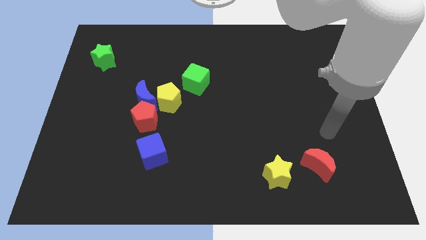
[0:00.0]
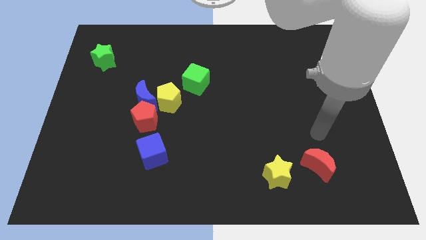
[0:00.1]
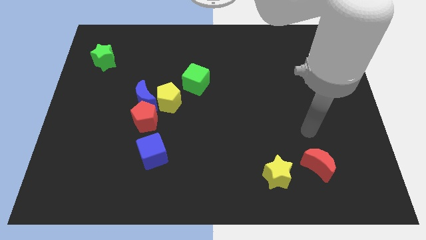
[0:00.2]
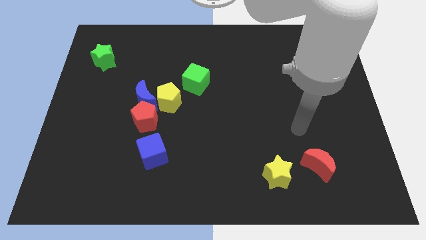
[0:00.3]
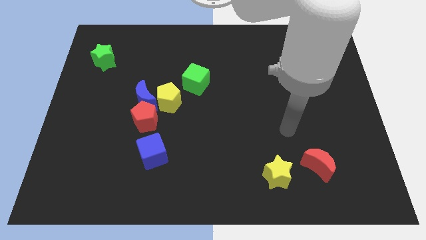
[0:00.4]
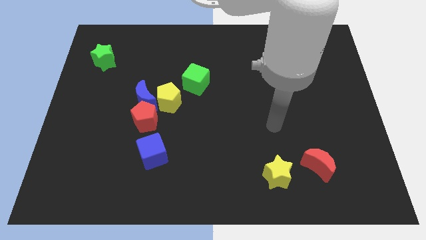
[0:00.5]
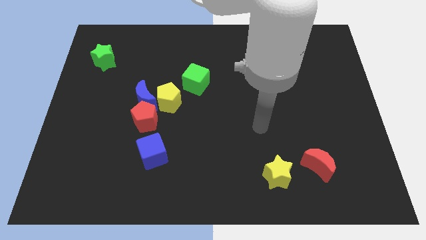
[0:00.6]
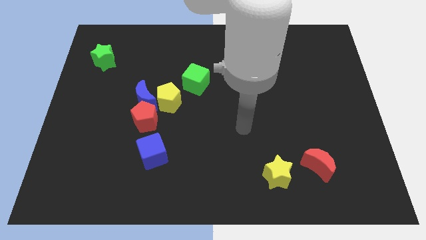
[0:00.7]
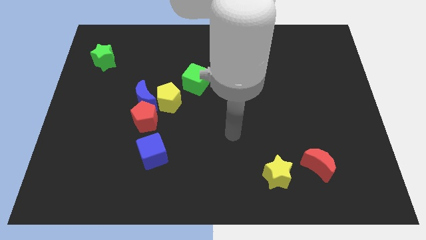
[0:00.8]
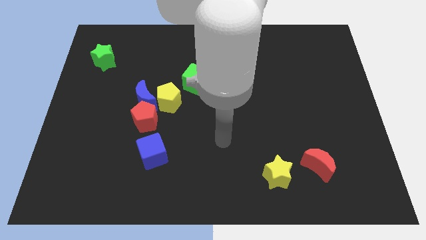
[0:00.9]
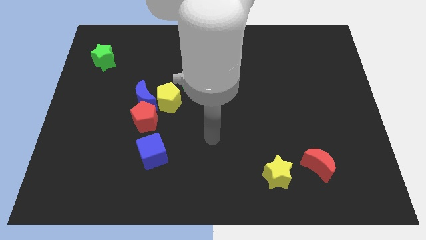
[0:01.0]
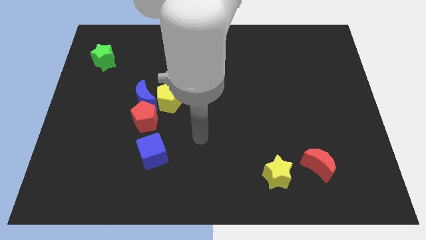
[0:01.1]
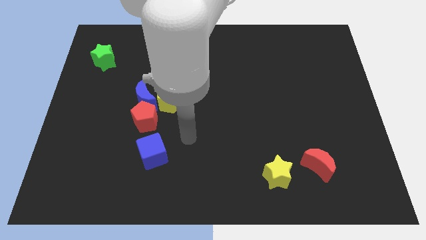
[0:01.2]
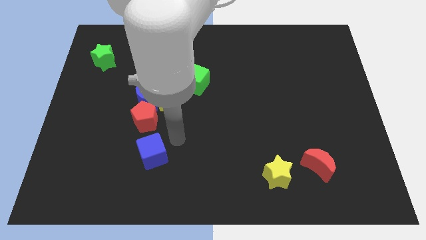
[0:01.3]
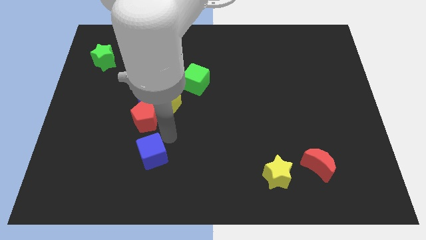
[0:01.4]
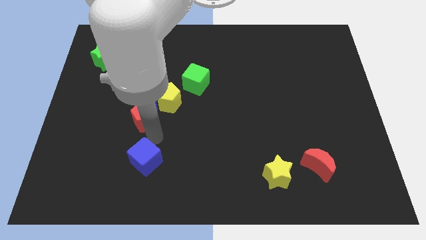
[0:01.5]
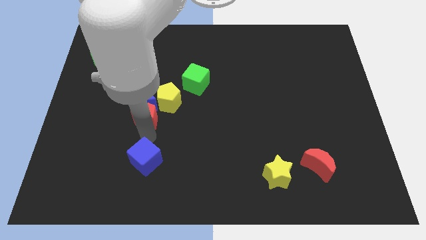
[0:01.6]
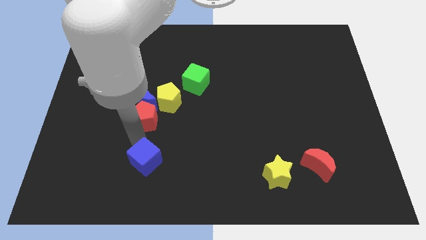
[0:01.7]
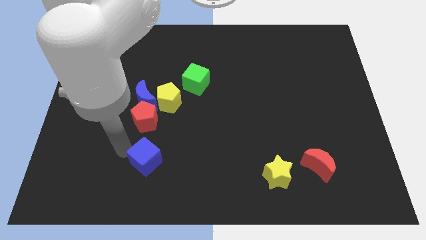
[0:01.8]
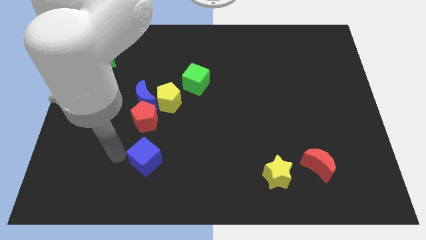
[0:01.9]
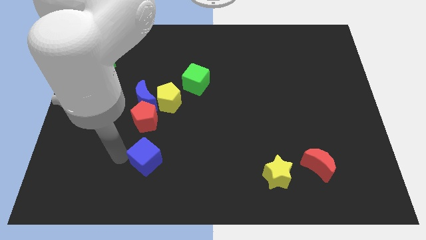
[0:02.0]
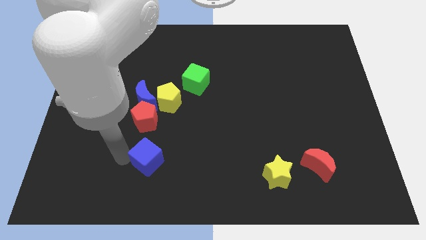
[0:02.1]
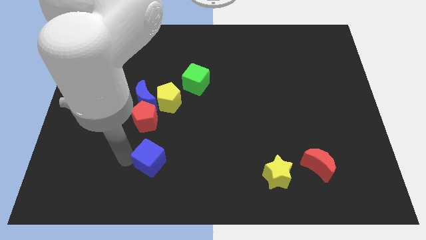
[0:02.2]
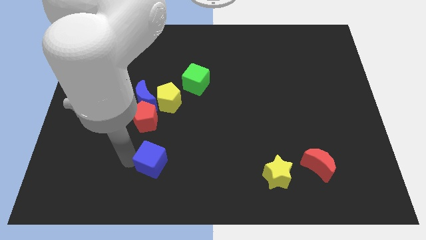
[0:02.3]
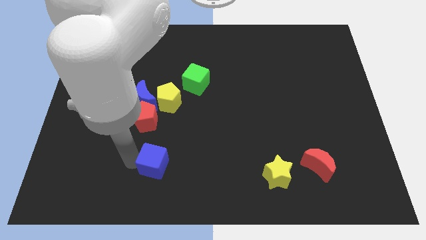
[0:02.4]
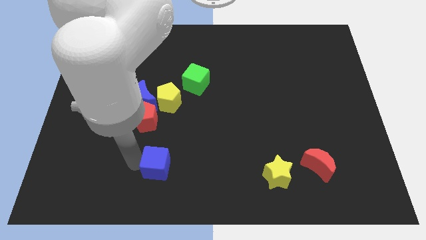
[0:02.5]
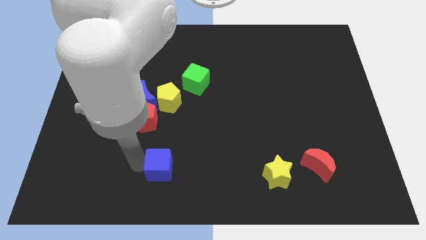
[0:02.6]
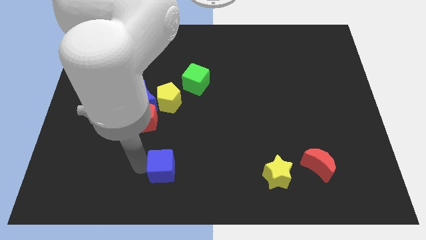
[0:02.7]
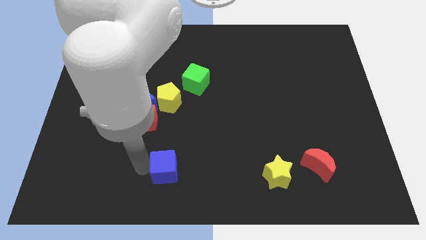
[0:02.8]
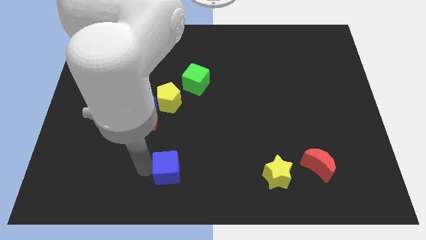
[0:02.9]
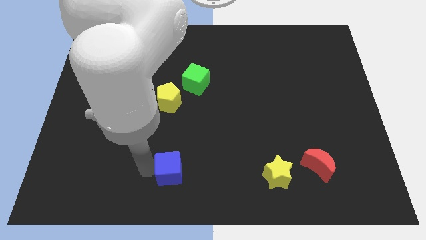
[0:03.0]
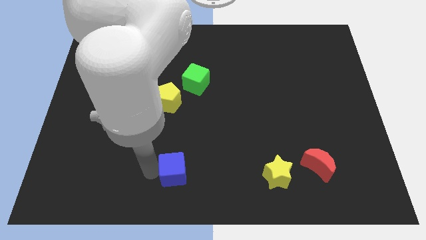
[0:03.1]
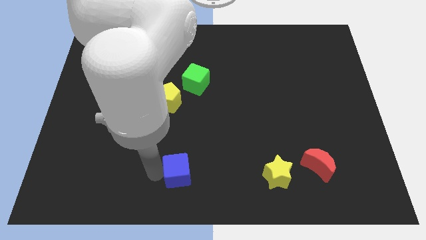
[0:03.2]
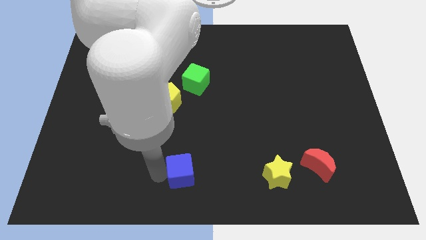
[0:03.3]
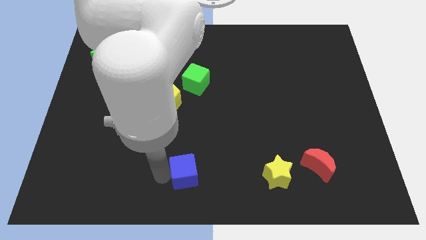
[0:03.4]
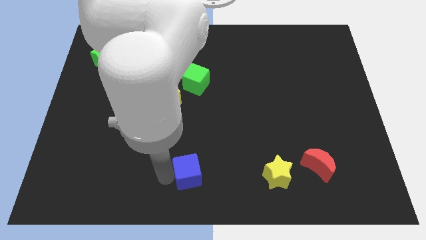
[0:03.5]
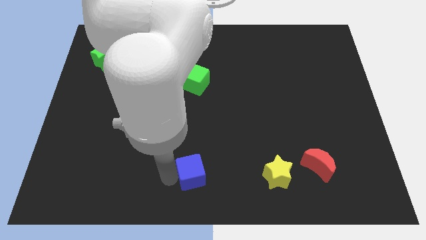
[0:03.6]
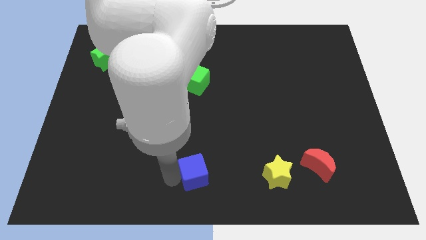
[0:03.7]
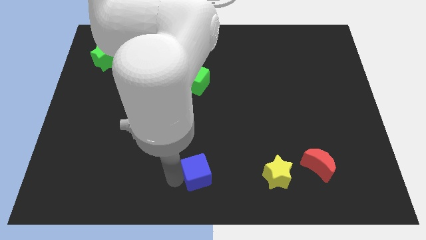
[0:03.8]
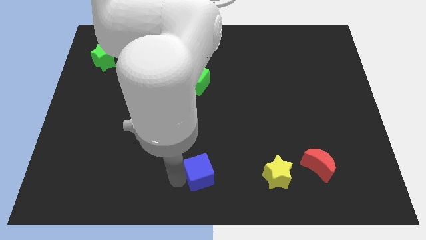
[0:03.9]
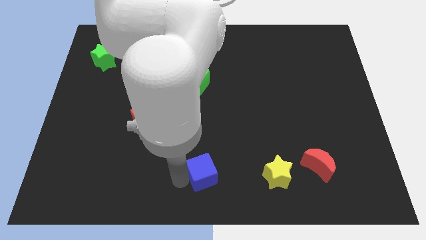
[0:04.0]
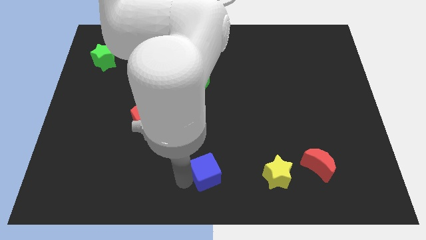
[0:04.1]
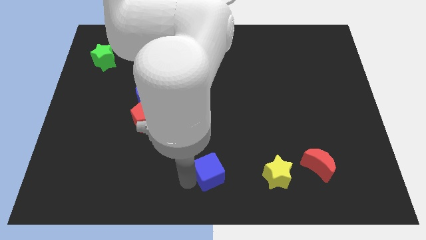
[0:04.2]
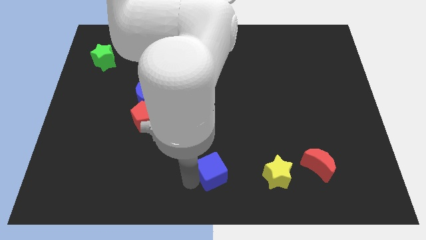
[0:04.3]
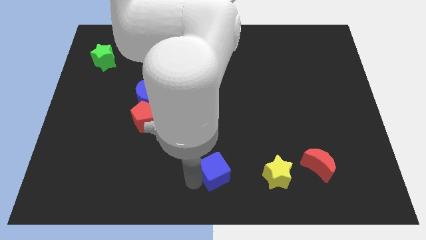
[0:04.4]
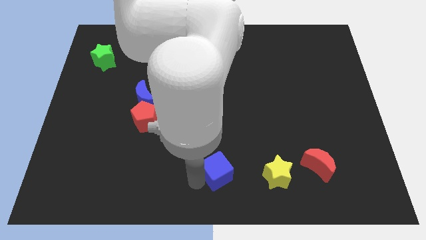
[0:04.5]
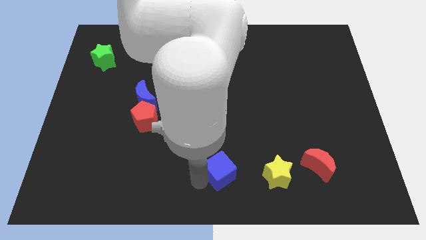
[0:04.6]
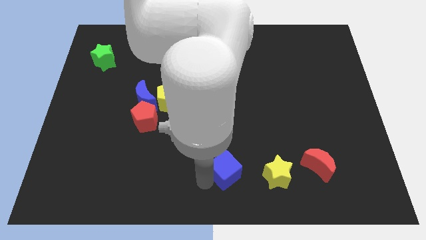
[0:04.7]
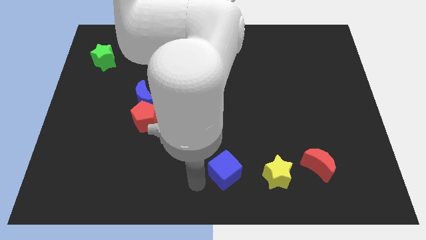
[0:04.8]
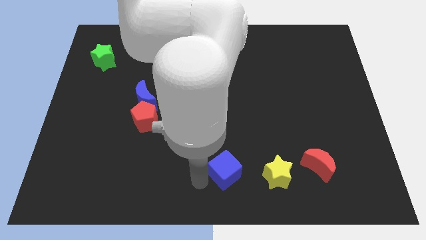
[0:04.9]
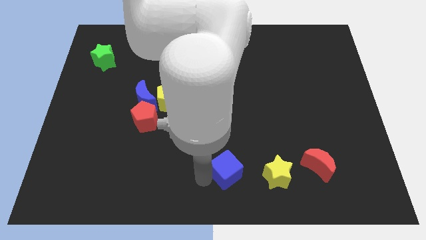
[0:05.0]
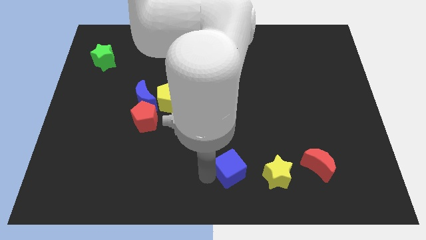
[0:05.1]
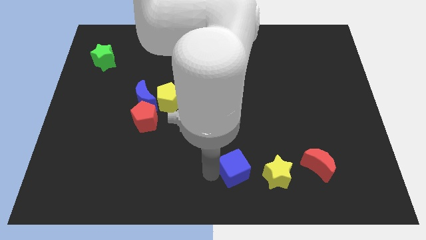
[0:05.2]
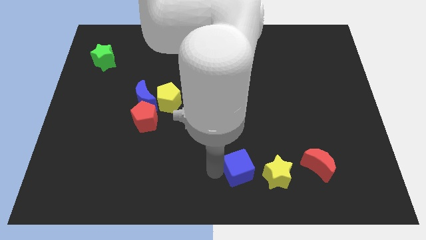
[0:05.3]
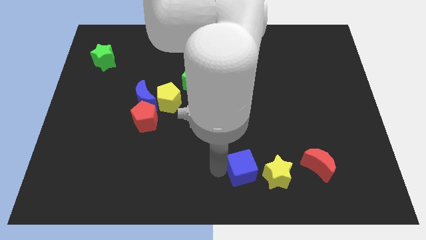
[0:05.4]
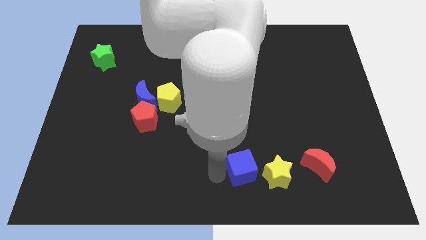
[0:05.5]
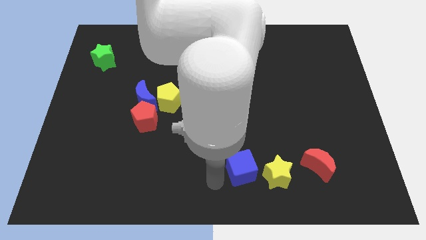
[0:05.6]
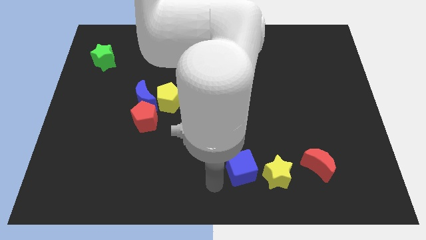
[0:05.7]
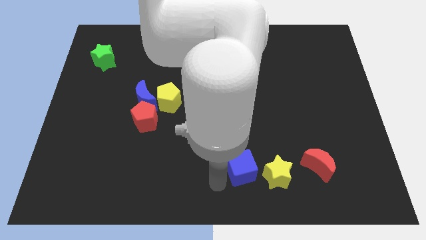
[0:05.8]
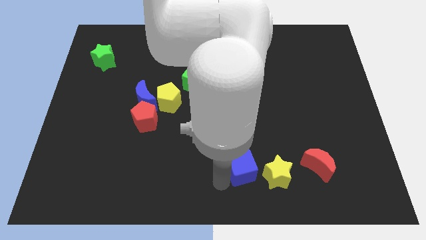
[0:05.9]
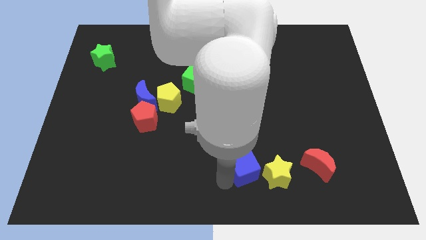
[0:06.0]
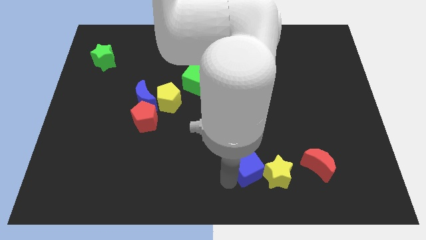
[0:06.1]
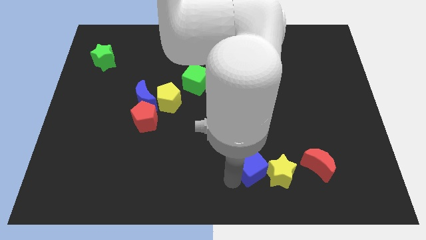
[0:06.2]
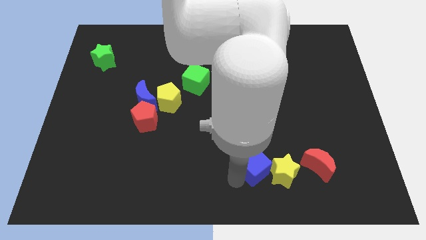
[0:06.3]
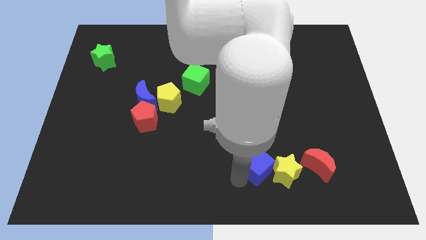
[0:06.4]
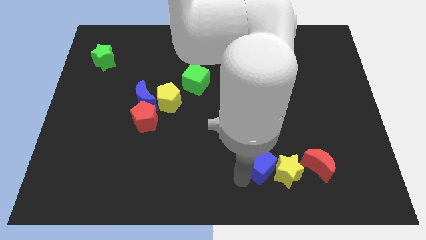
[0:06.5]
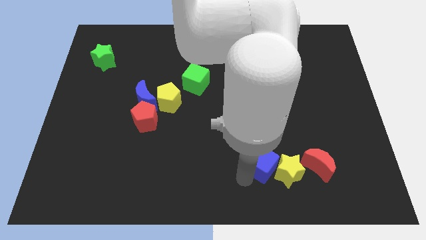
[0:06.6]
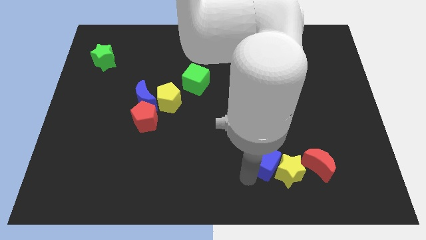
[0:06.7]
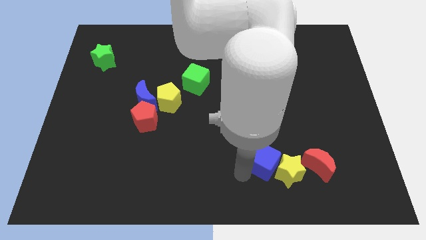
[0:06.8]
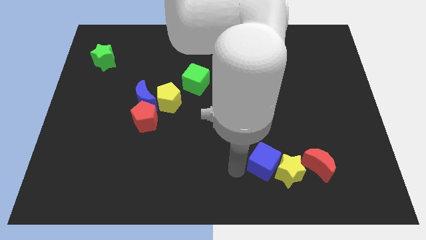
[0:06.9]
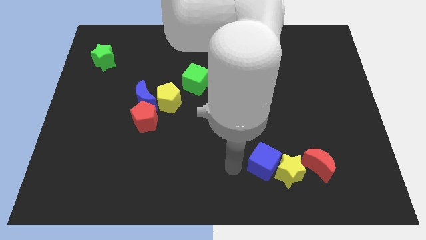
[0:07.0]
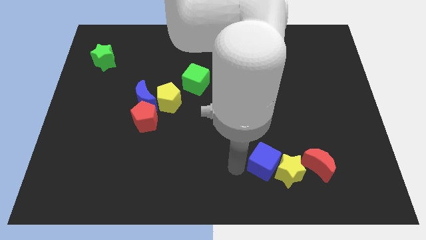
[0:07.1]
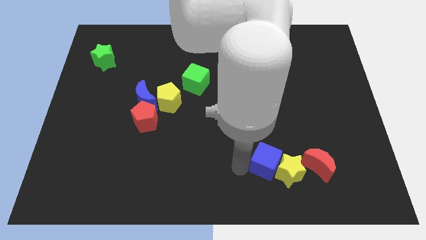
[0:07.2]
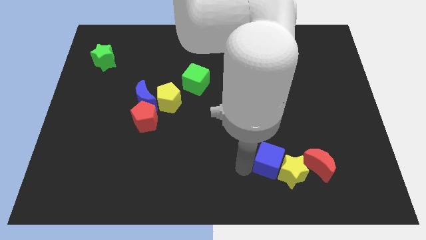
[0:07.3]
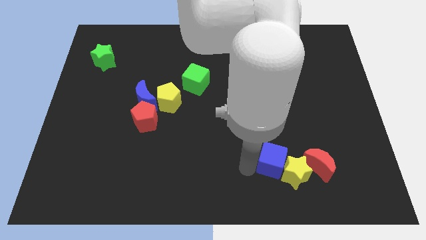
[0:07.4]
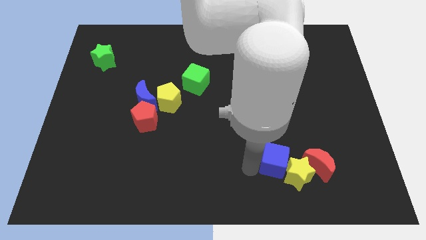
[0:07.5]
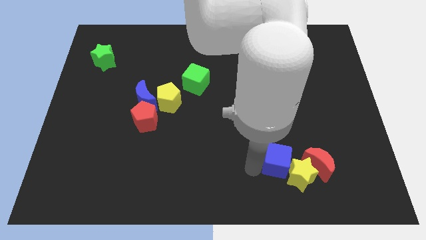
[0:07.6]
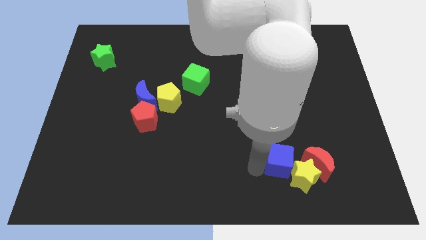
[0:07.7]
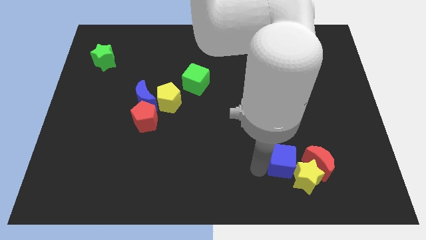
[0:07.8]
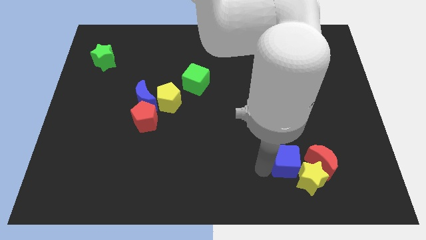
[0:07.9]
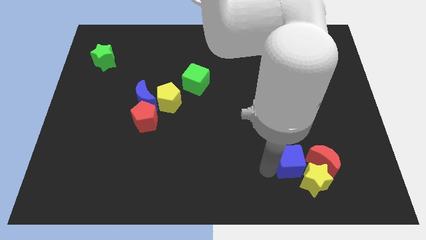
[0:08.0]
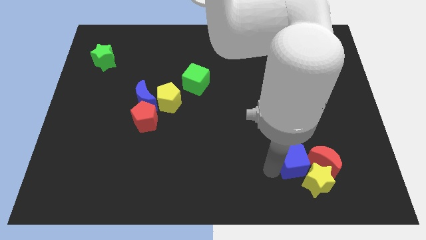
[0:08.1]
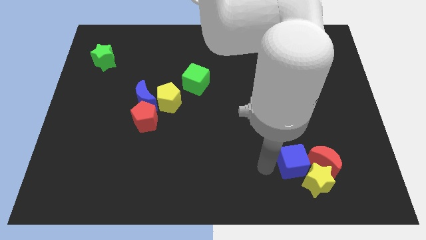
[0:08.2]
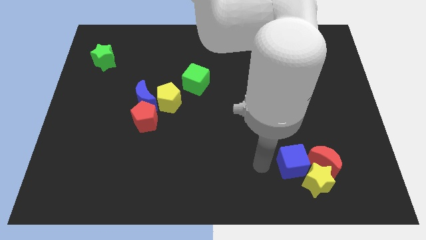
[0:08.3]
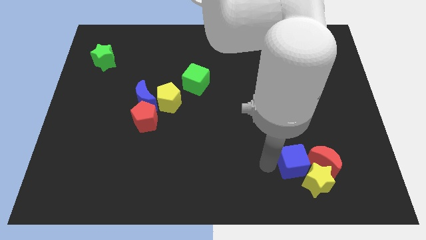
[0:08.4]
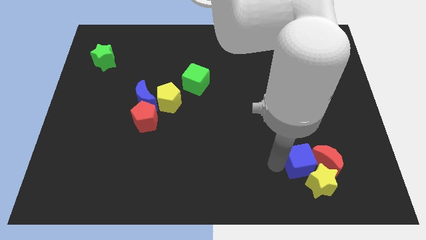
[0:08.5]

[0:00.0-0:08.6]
push the blue cube to the red moon
